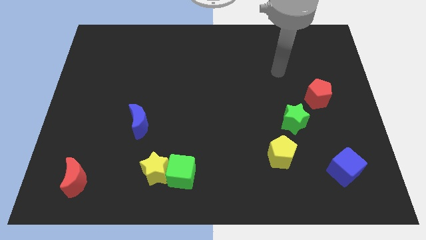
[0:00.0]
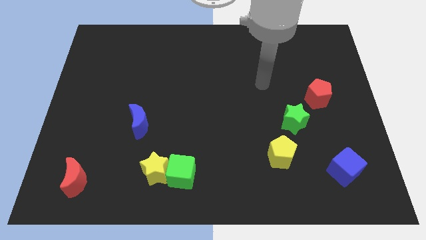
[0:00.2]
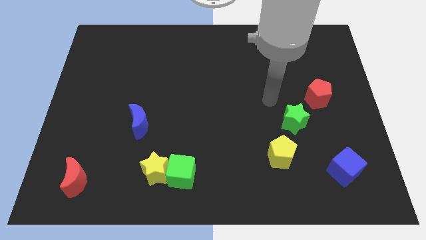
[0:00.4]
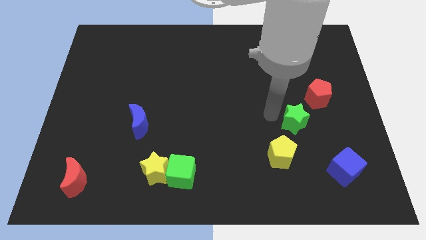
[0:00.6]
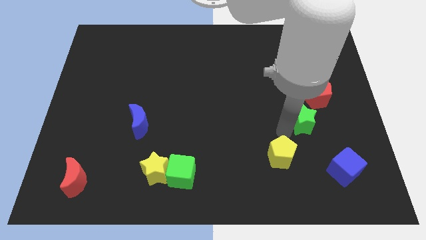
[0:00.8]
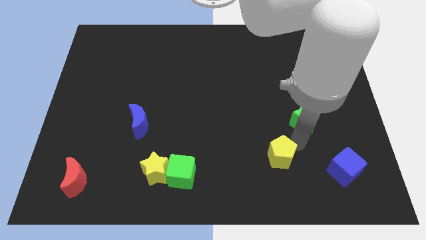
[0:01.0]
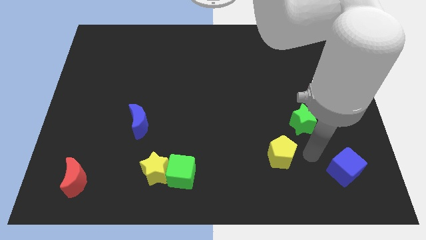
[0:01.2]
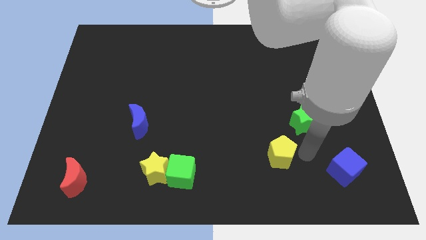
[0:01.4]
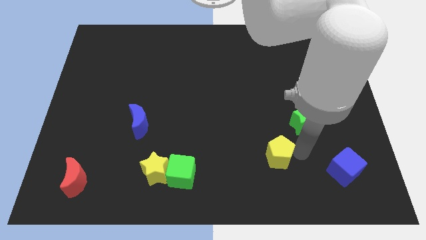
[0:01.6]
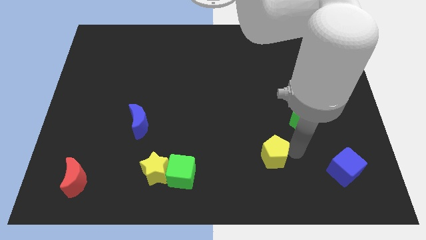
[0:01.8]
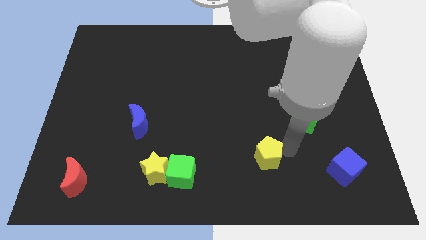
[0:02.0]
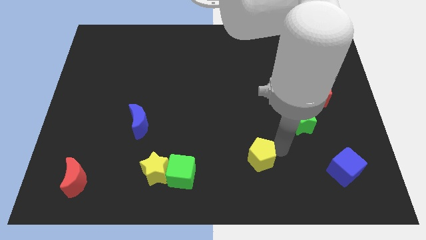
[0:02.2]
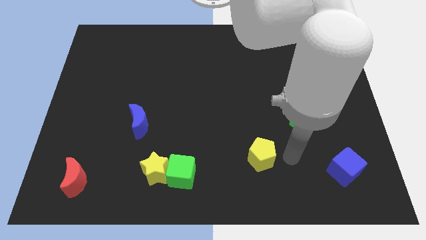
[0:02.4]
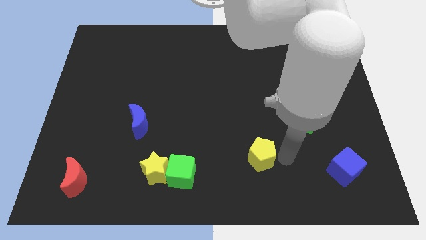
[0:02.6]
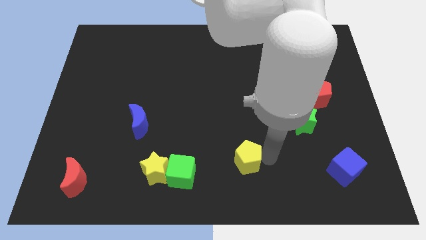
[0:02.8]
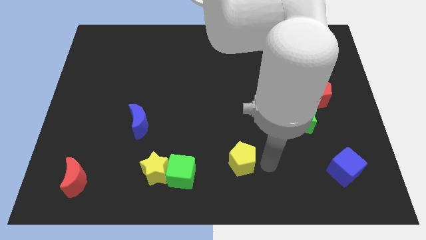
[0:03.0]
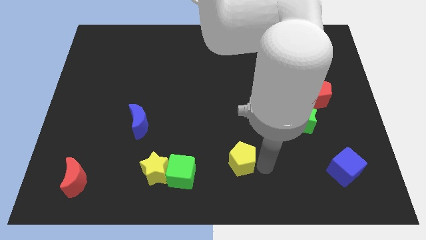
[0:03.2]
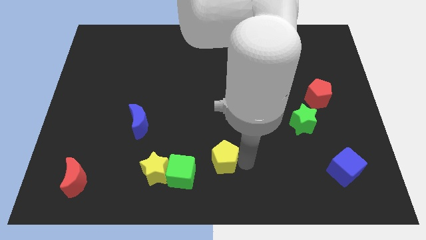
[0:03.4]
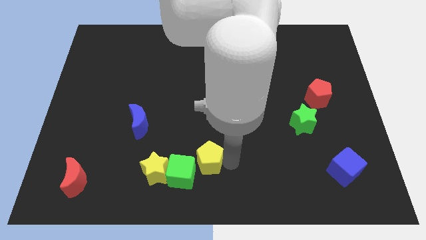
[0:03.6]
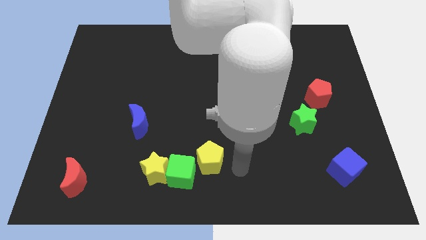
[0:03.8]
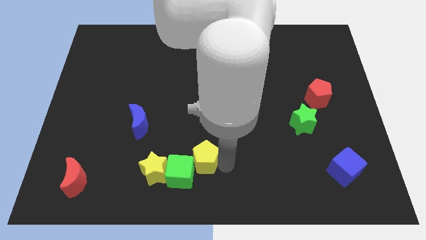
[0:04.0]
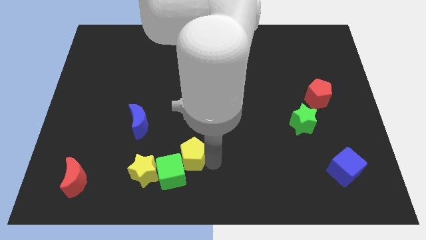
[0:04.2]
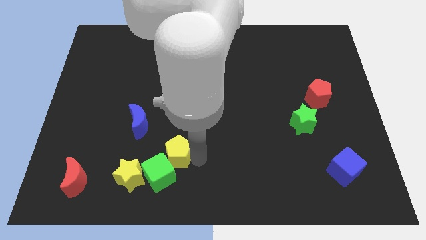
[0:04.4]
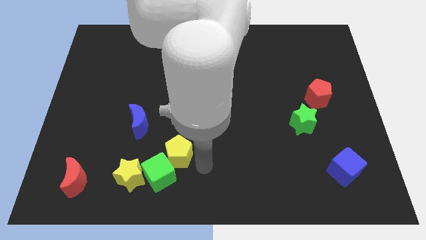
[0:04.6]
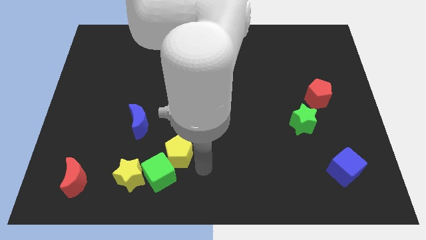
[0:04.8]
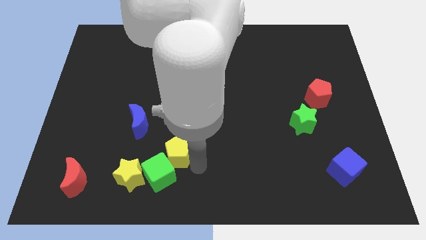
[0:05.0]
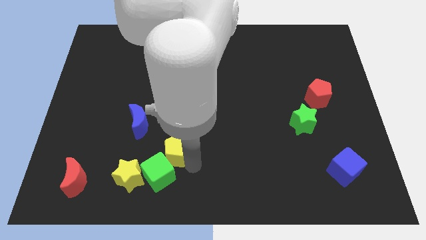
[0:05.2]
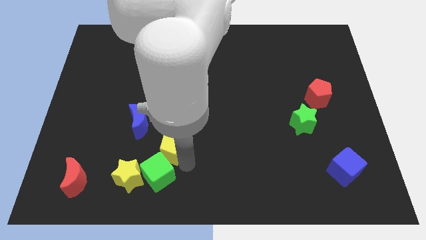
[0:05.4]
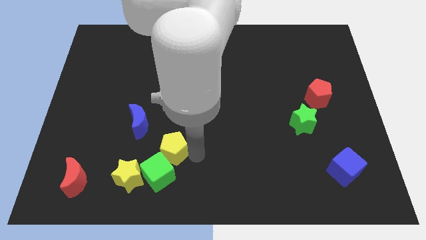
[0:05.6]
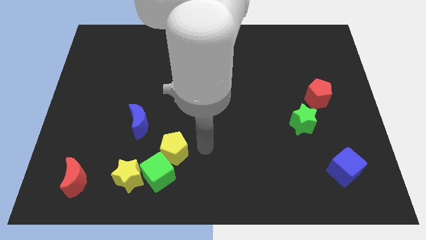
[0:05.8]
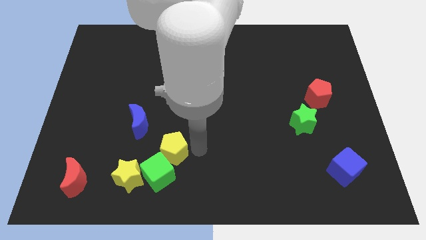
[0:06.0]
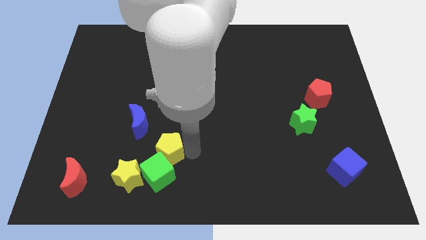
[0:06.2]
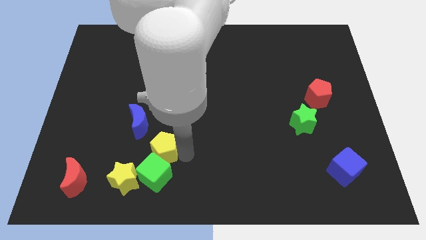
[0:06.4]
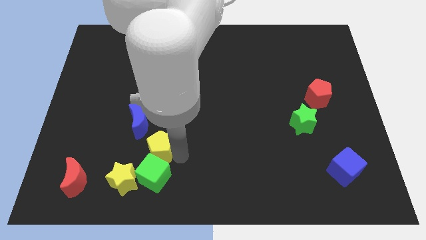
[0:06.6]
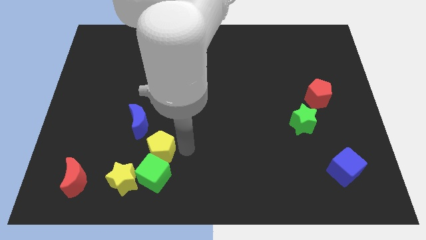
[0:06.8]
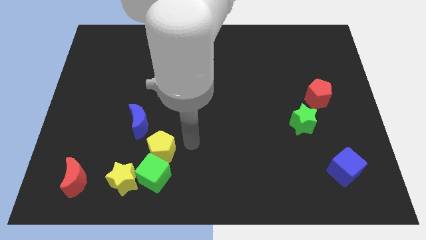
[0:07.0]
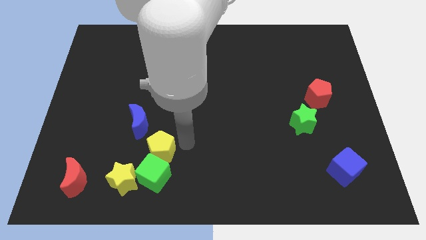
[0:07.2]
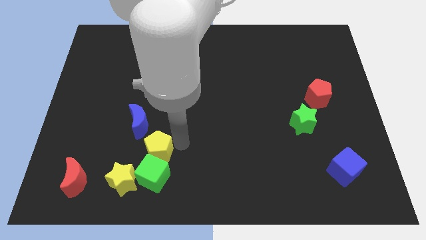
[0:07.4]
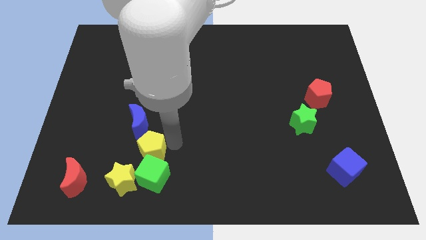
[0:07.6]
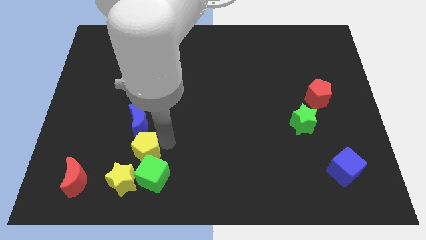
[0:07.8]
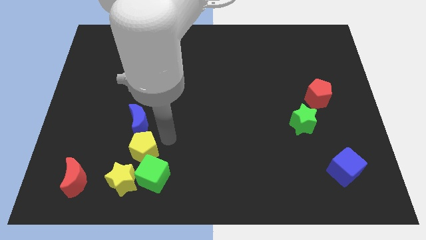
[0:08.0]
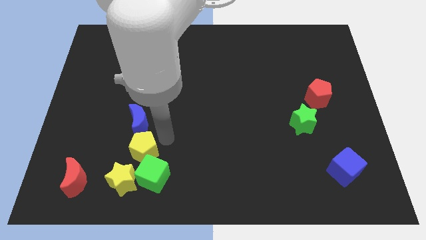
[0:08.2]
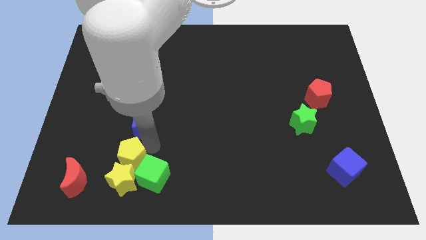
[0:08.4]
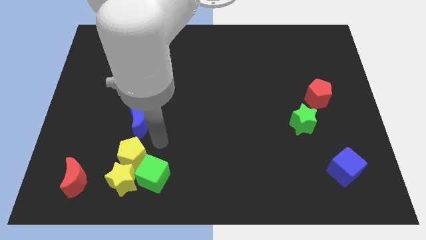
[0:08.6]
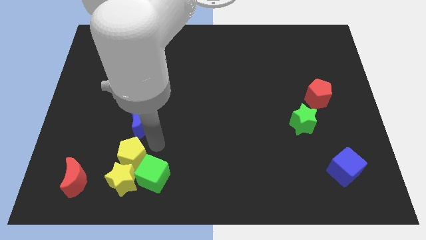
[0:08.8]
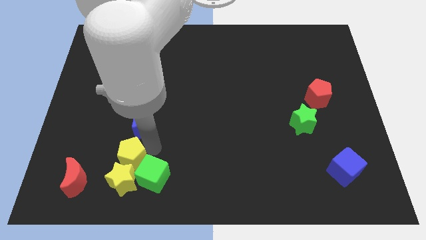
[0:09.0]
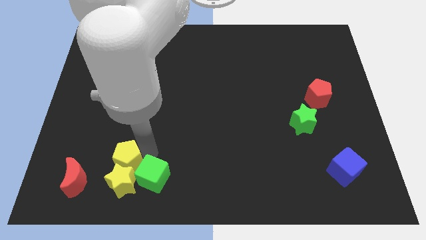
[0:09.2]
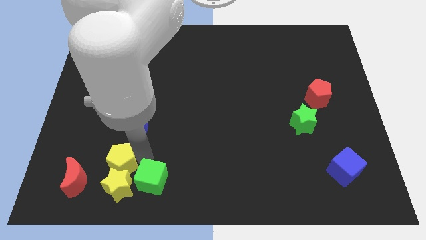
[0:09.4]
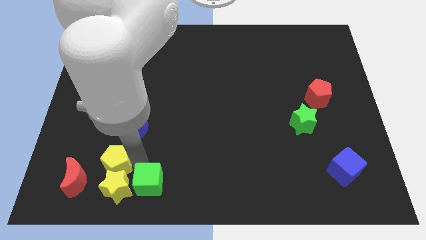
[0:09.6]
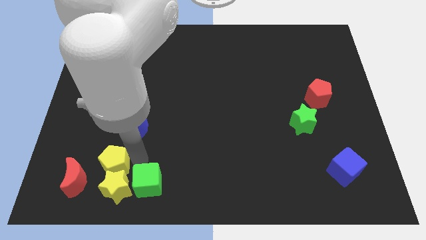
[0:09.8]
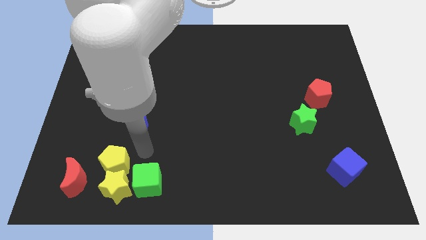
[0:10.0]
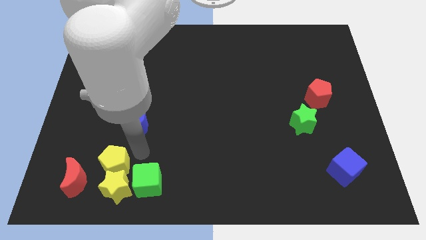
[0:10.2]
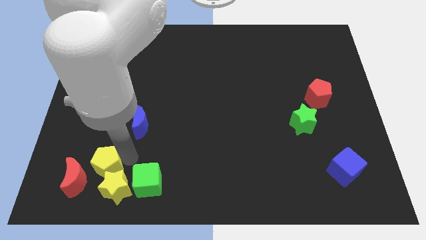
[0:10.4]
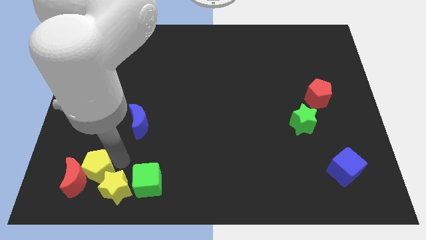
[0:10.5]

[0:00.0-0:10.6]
put the yellow pentagon towards the red moon

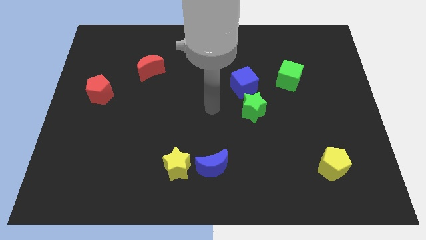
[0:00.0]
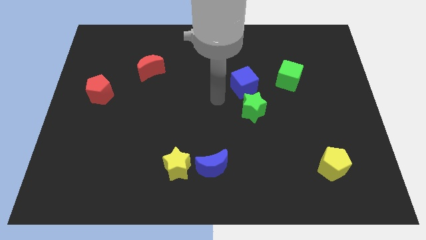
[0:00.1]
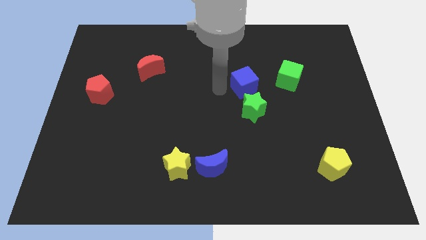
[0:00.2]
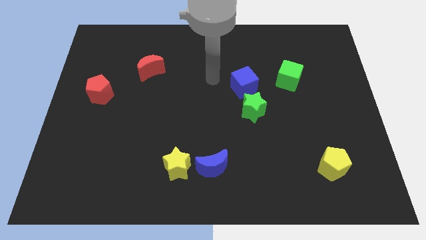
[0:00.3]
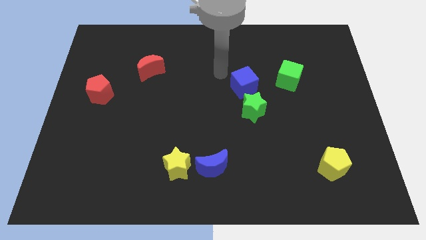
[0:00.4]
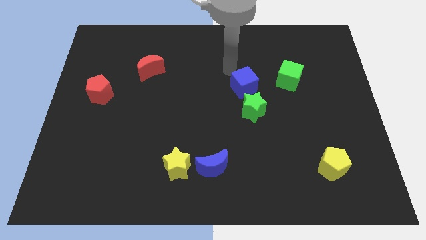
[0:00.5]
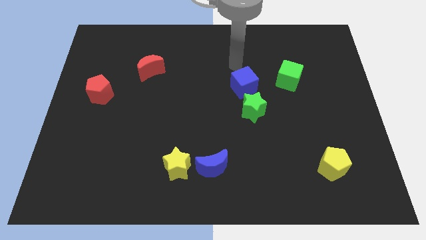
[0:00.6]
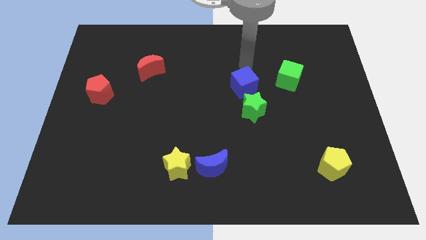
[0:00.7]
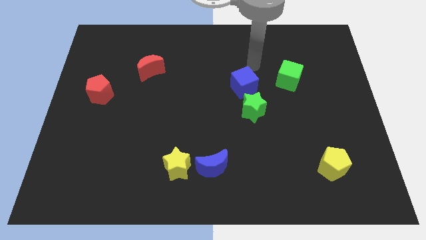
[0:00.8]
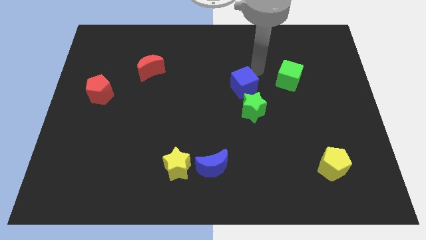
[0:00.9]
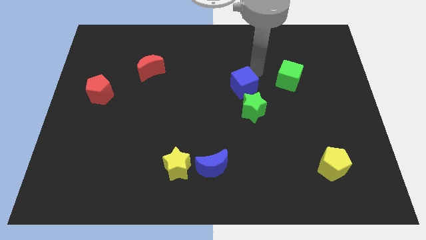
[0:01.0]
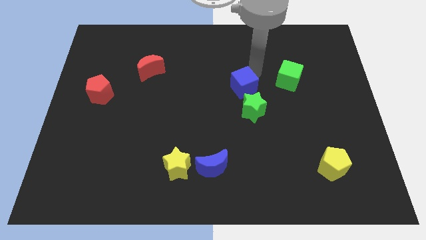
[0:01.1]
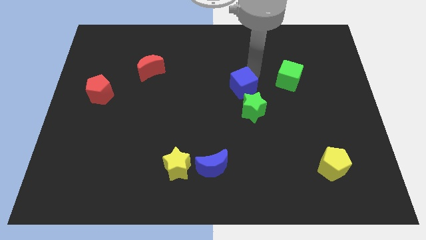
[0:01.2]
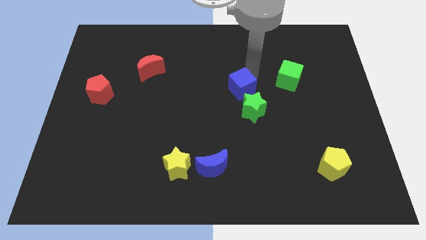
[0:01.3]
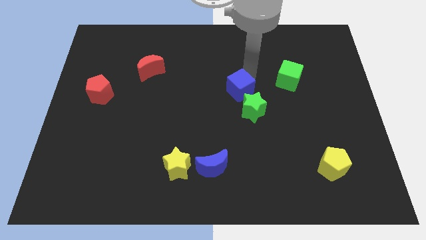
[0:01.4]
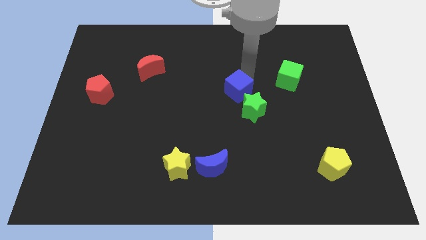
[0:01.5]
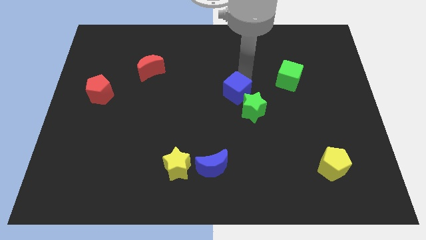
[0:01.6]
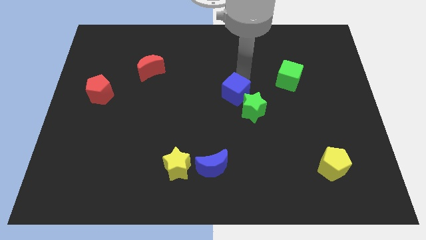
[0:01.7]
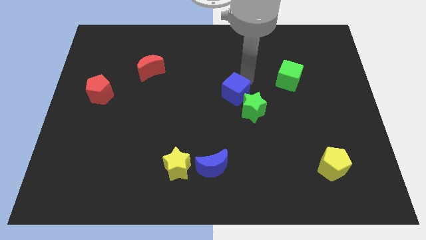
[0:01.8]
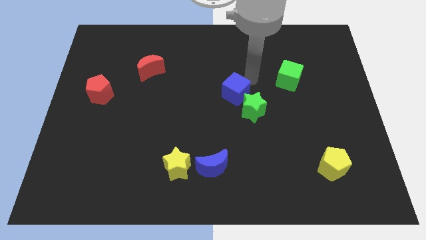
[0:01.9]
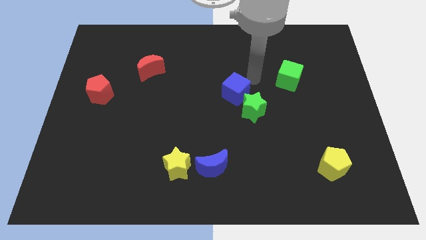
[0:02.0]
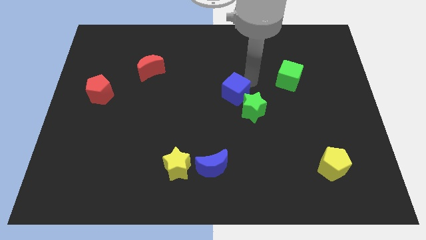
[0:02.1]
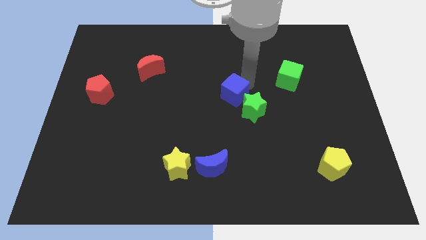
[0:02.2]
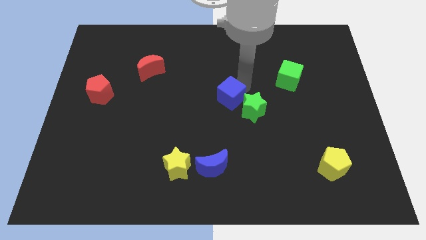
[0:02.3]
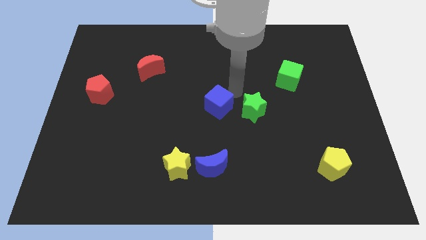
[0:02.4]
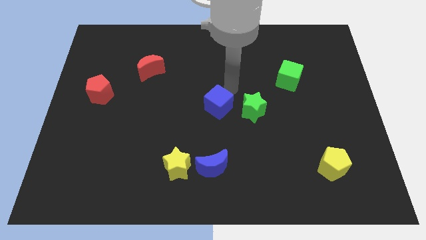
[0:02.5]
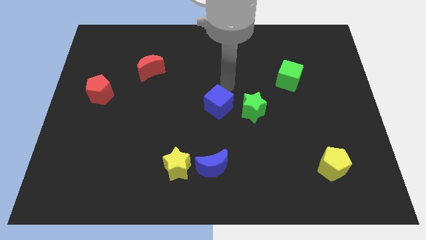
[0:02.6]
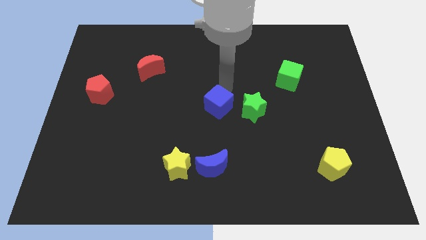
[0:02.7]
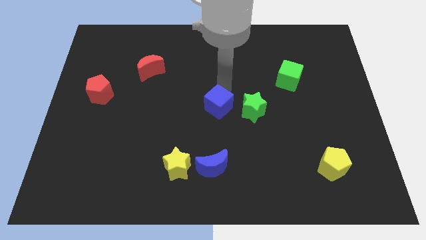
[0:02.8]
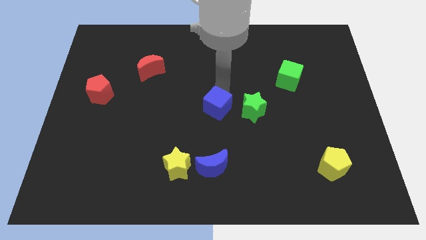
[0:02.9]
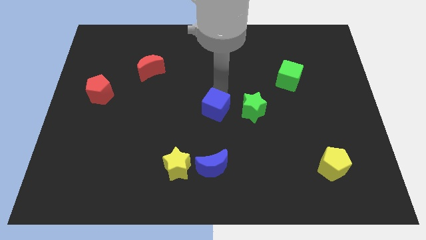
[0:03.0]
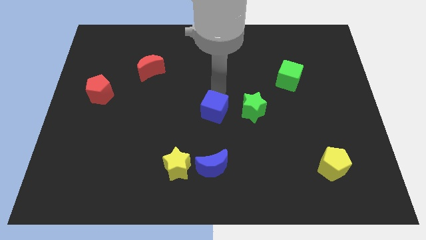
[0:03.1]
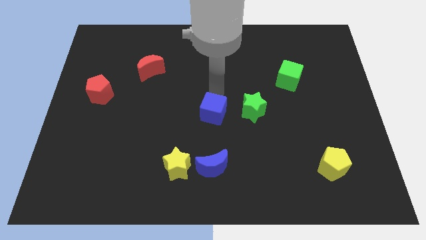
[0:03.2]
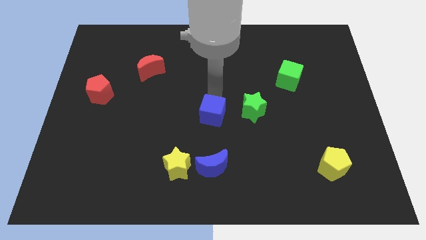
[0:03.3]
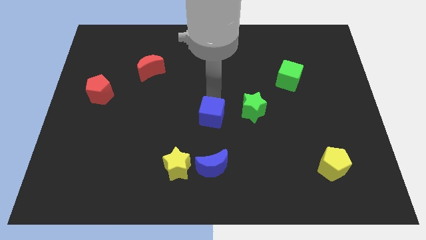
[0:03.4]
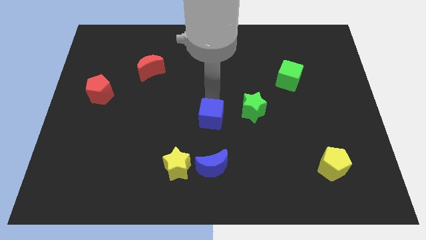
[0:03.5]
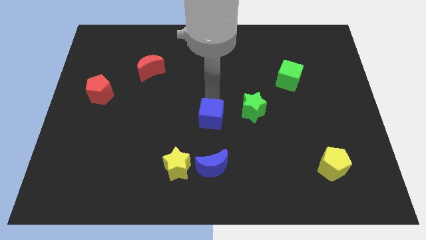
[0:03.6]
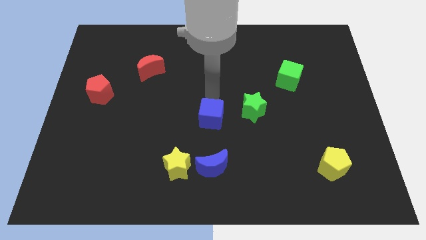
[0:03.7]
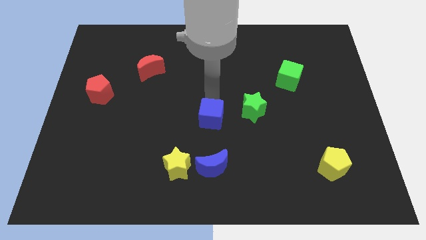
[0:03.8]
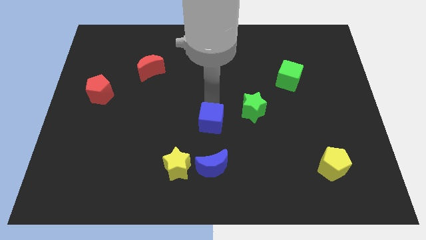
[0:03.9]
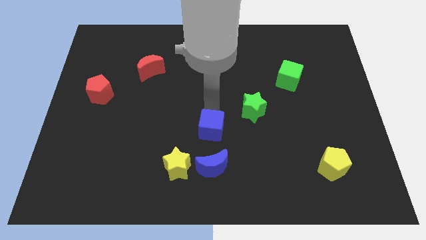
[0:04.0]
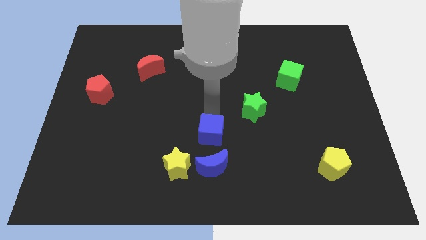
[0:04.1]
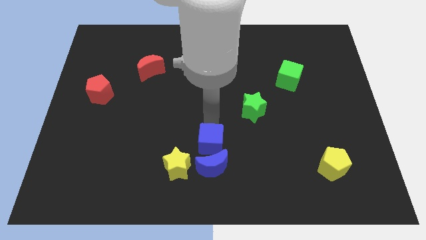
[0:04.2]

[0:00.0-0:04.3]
put the blue cube to the blue moon
